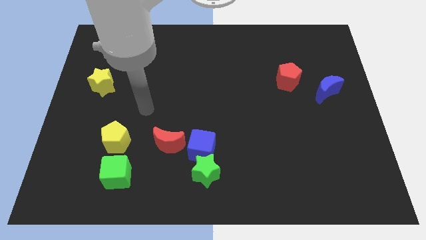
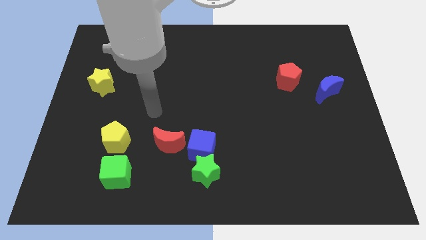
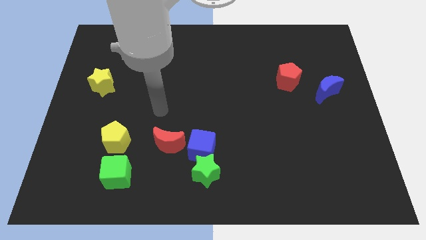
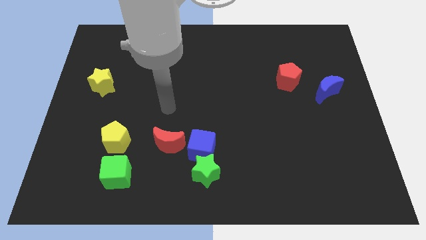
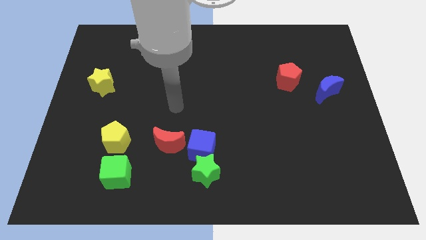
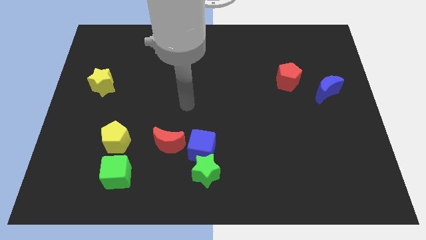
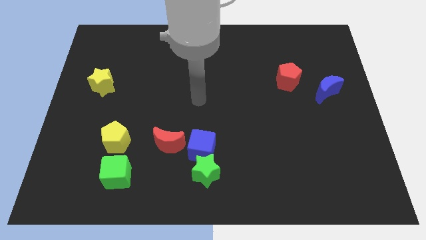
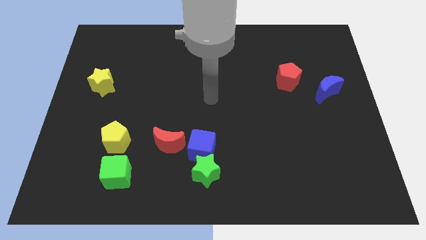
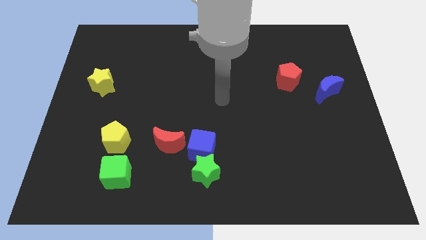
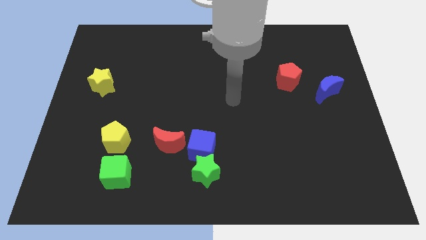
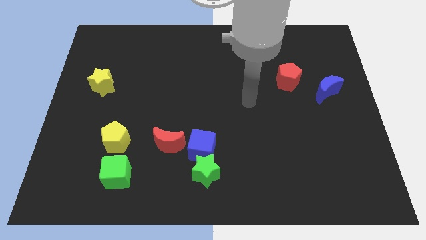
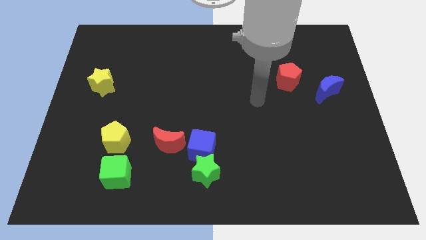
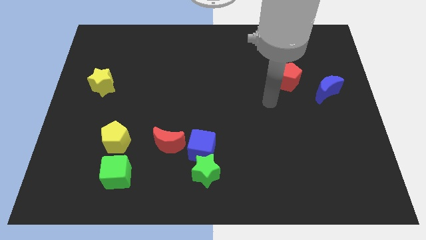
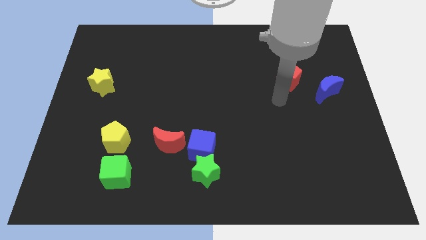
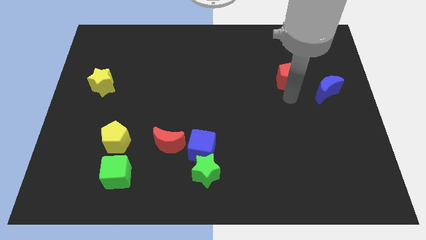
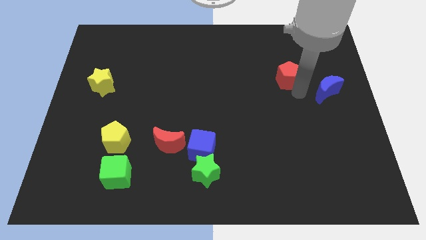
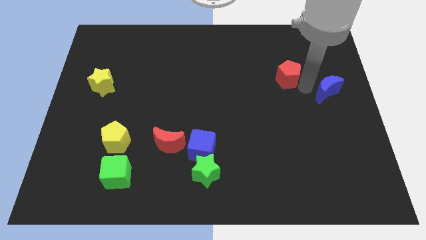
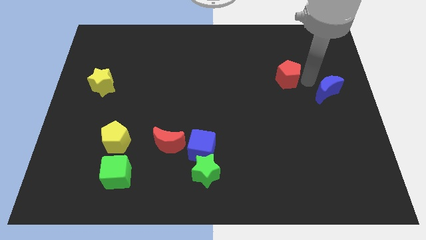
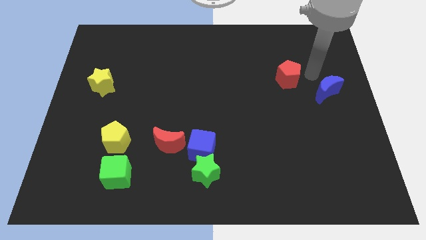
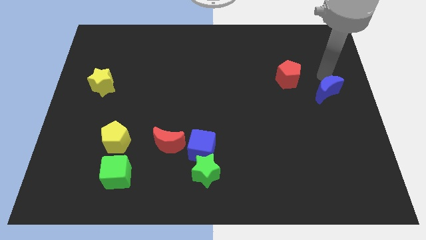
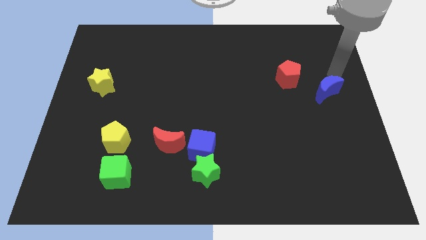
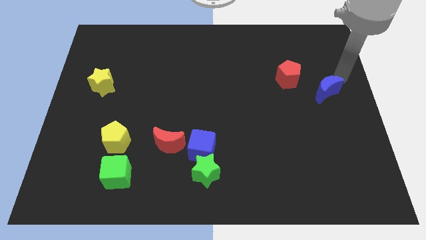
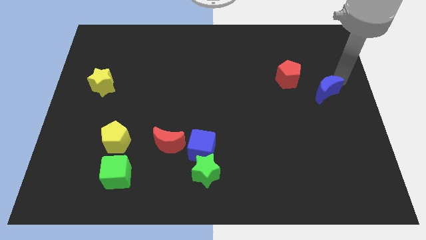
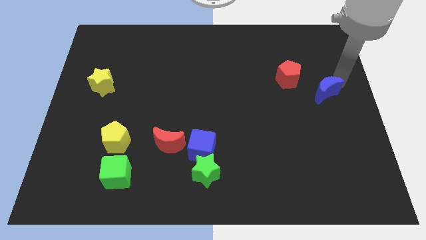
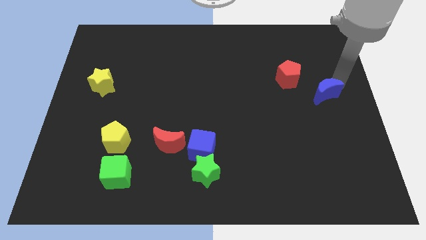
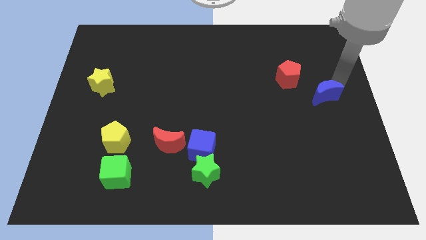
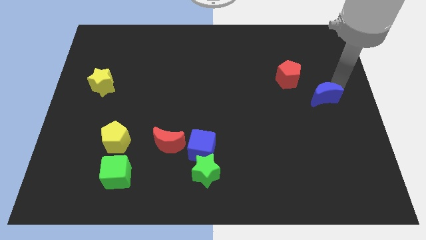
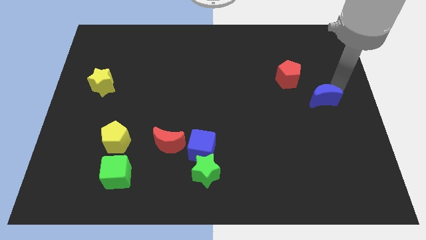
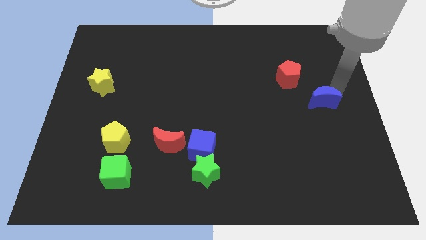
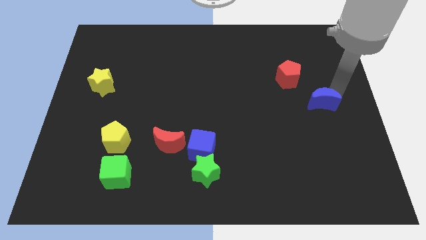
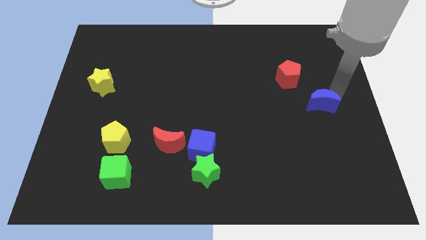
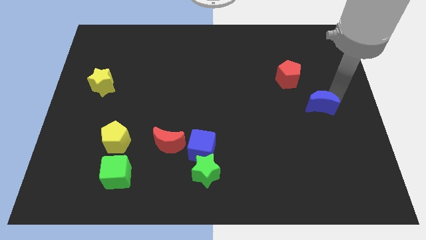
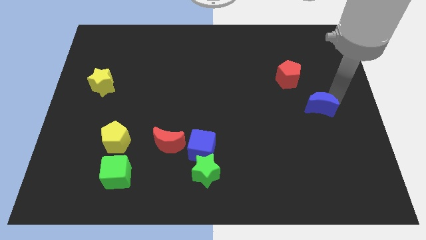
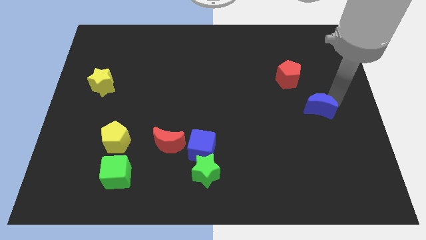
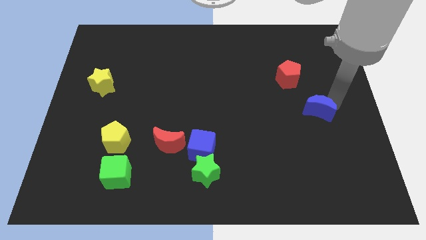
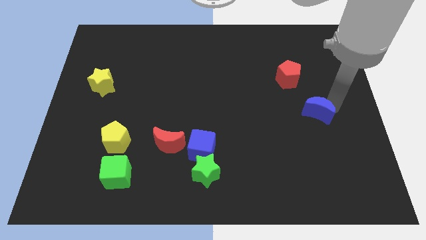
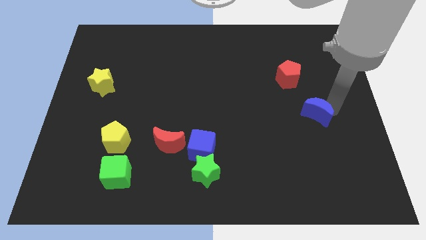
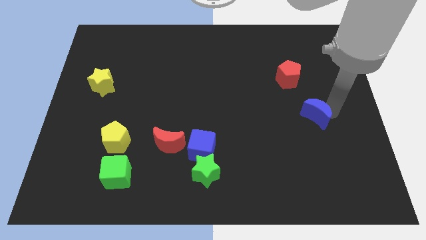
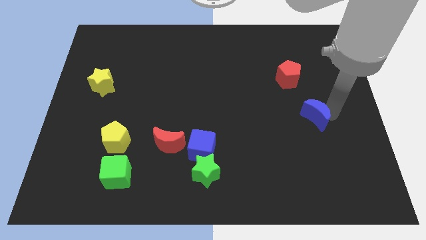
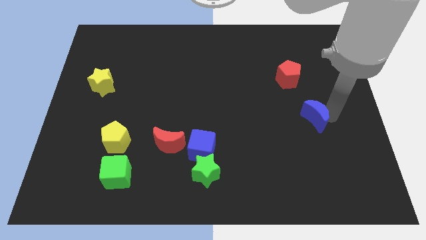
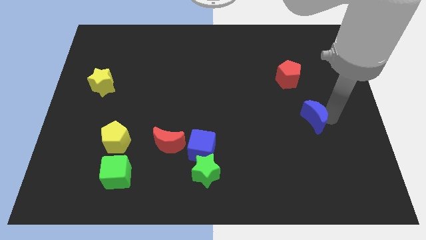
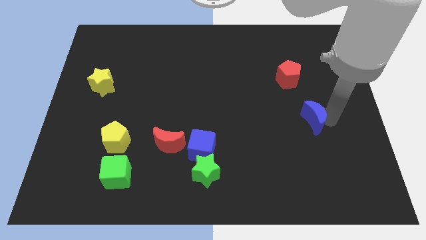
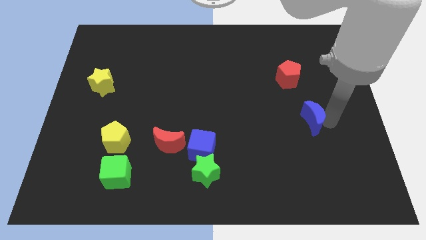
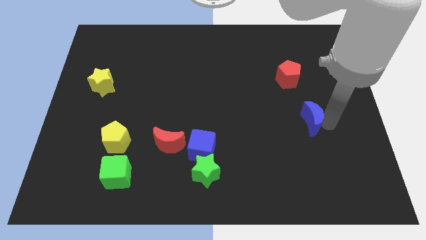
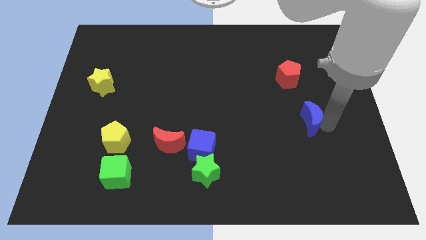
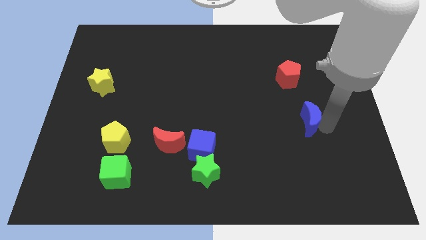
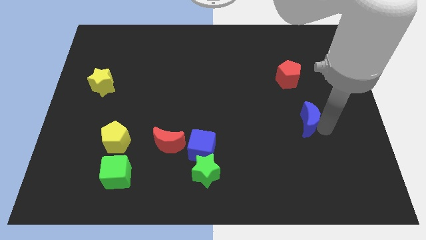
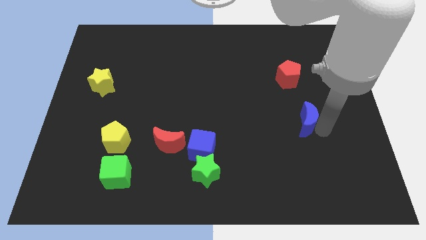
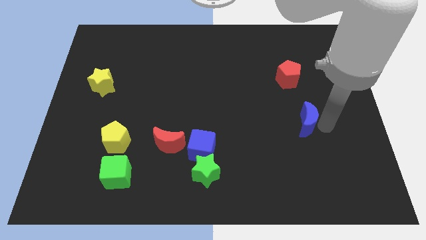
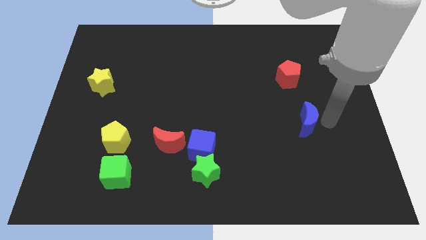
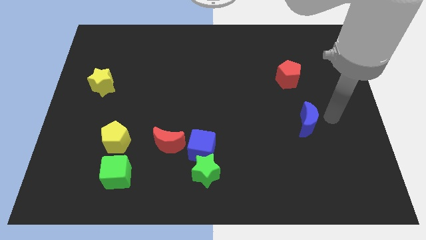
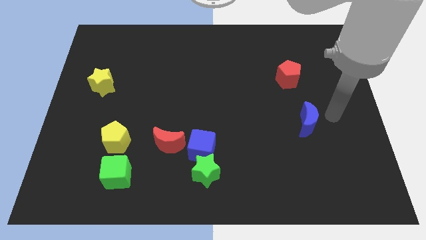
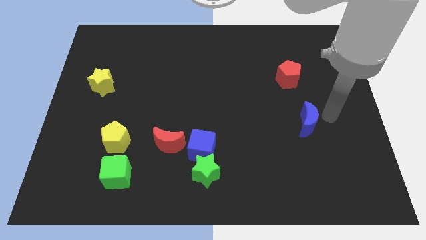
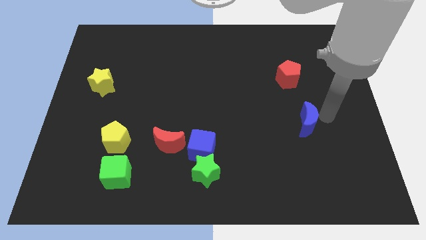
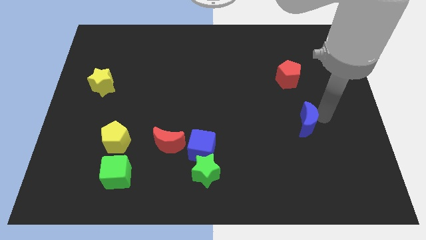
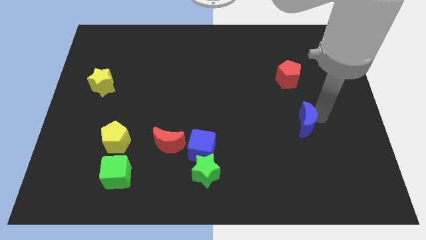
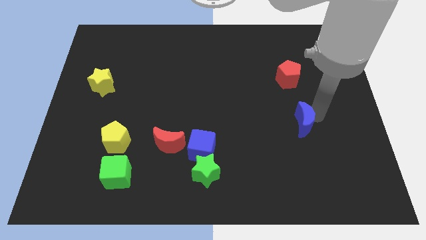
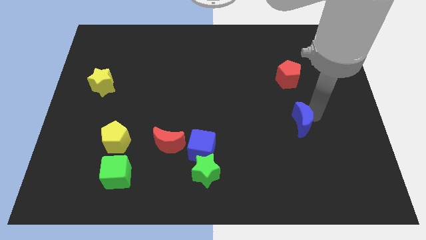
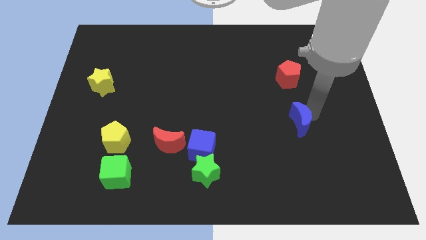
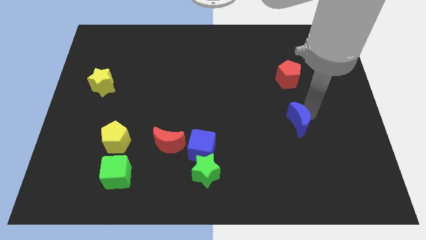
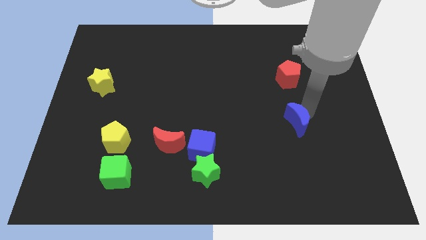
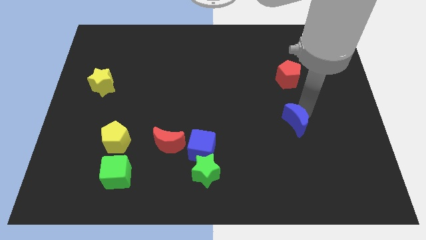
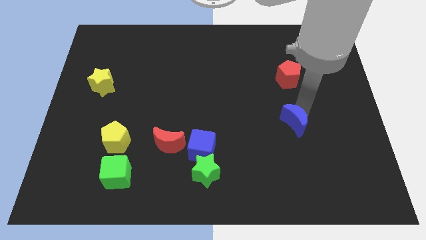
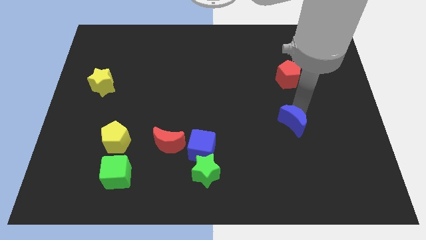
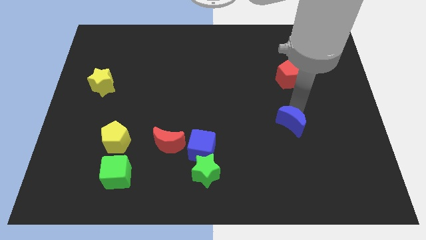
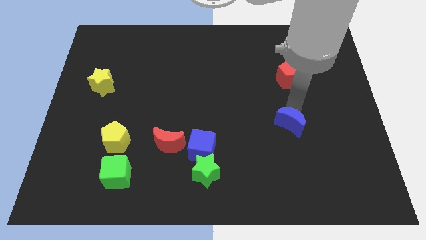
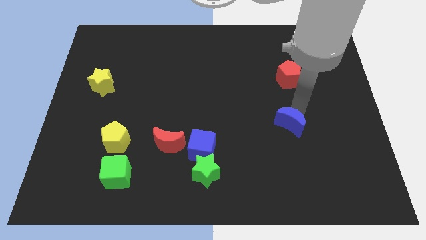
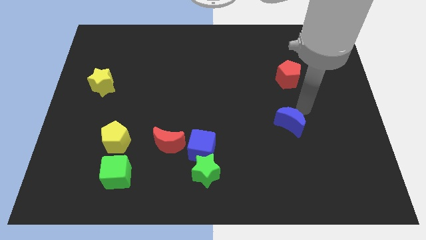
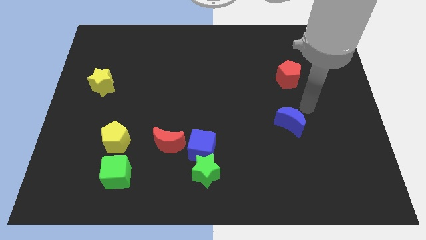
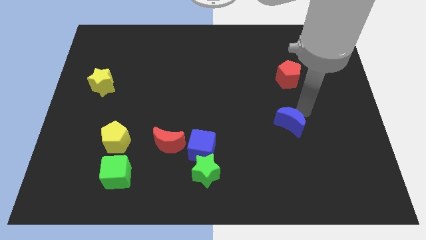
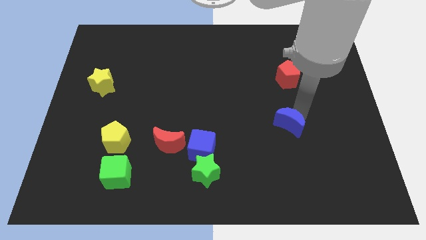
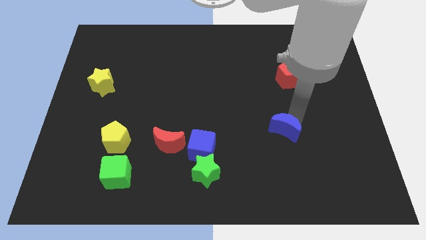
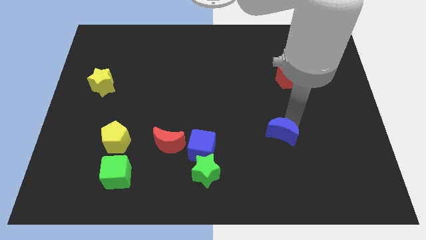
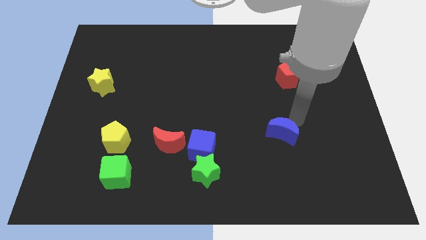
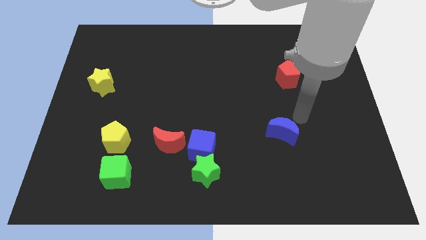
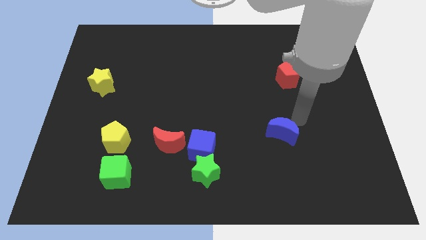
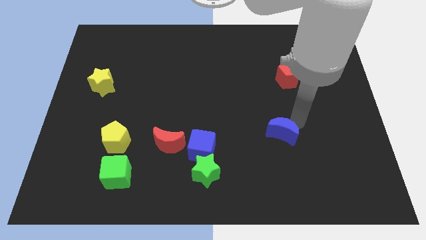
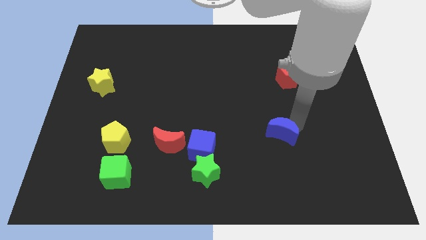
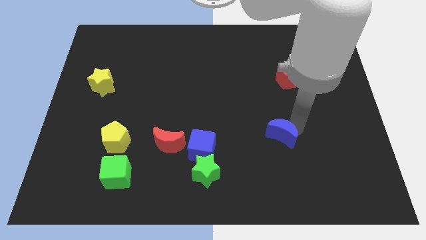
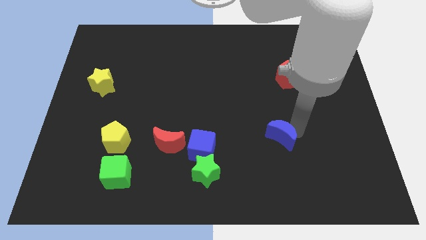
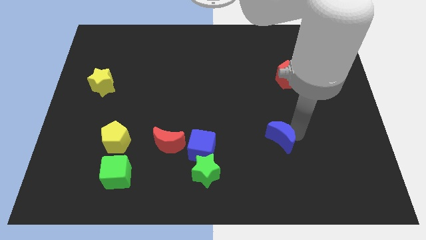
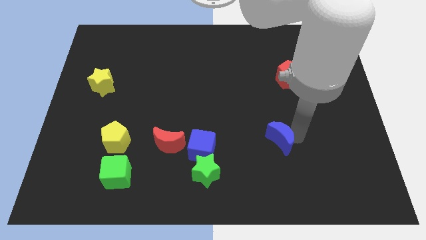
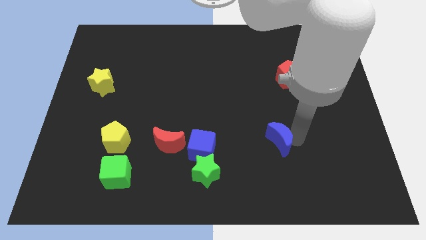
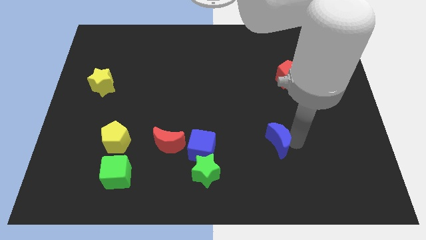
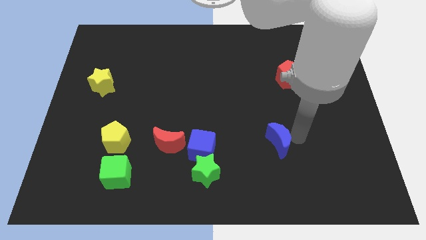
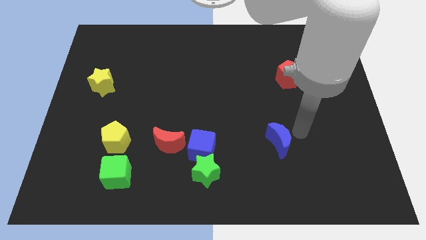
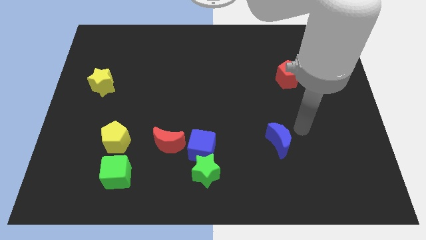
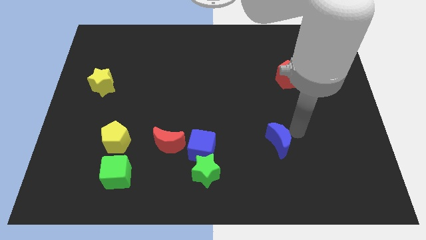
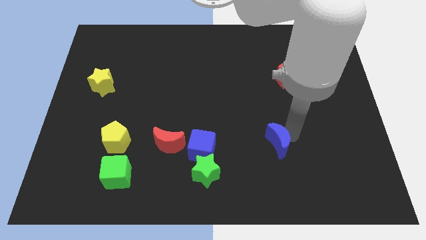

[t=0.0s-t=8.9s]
slide the blue moon downwards and then to the left
